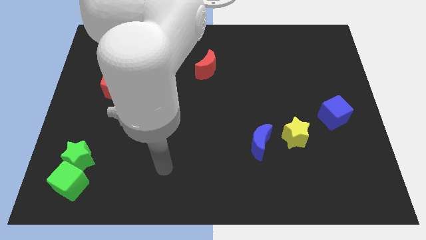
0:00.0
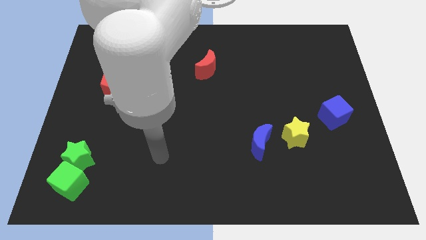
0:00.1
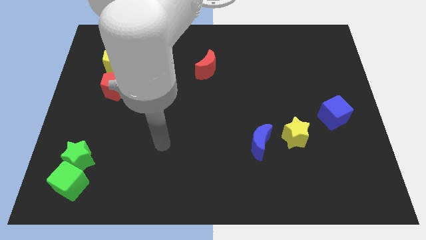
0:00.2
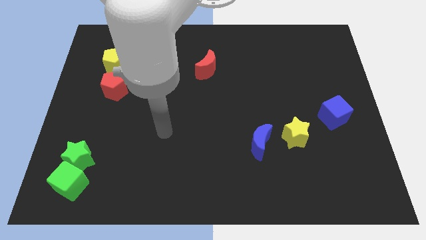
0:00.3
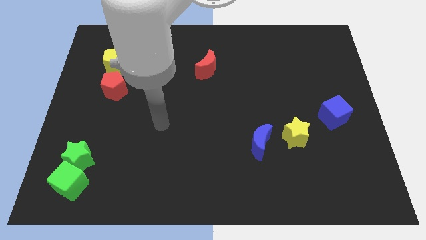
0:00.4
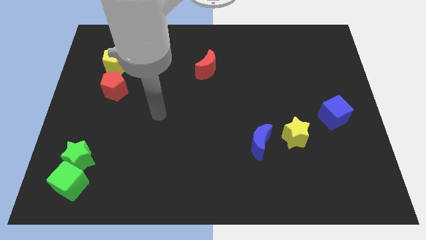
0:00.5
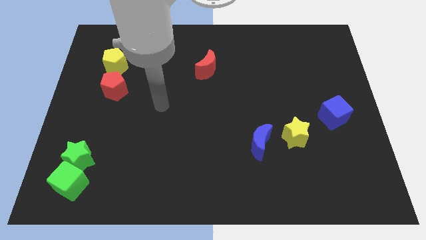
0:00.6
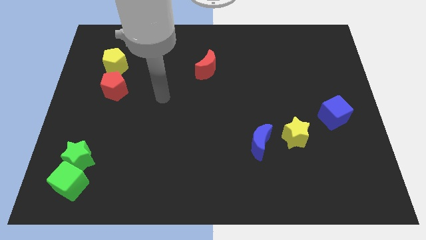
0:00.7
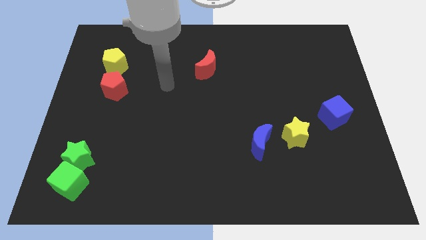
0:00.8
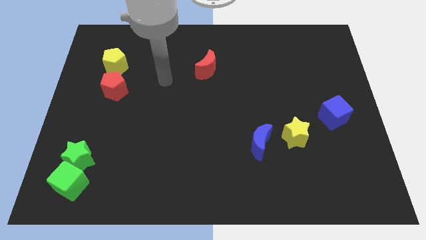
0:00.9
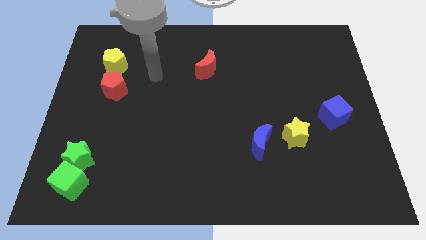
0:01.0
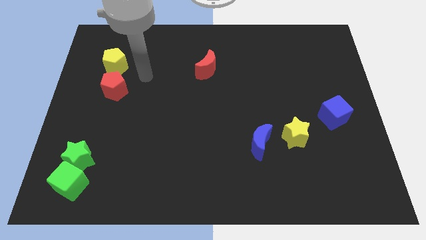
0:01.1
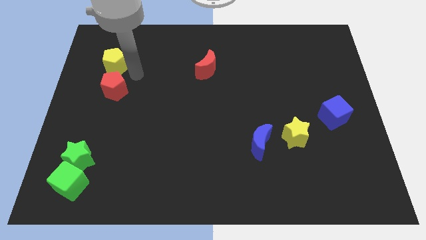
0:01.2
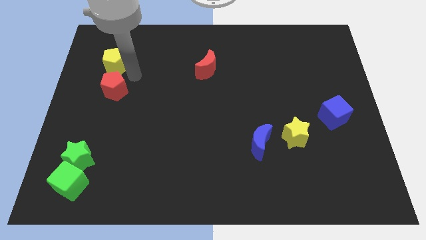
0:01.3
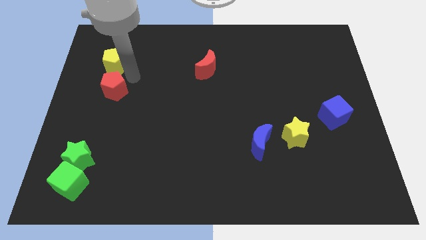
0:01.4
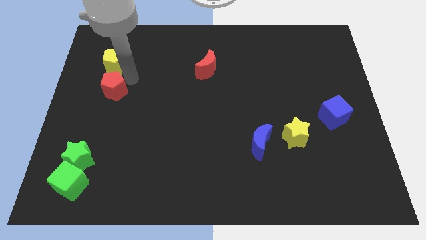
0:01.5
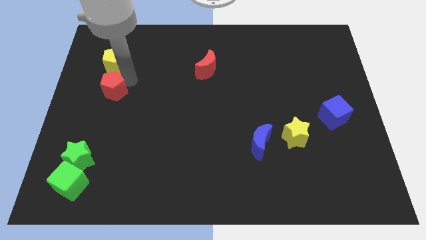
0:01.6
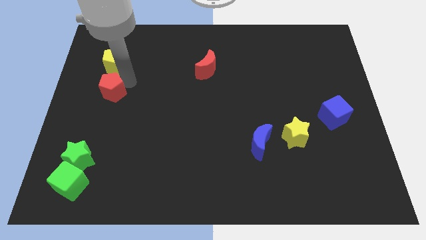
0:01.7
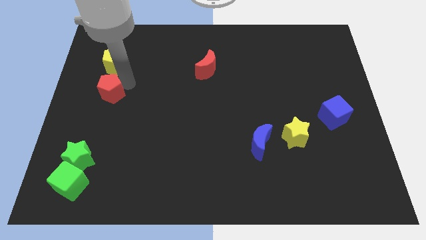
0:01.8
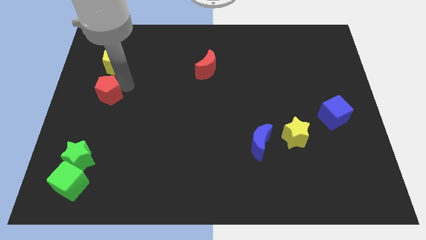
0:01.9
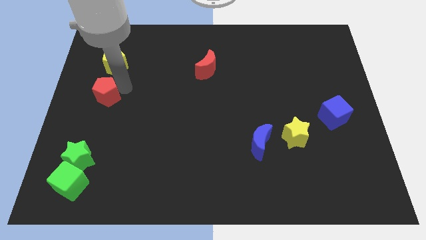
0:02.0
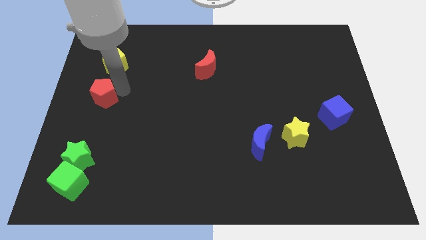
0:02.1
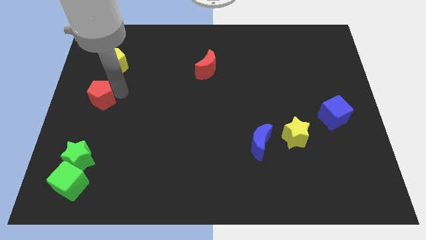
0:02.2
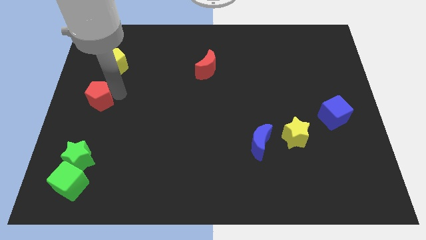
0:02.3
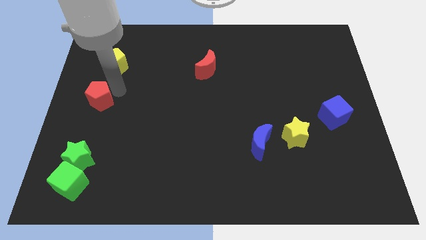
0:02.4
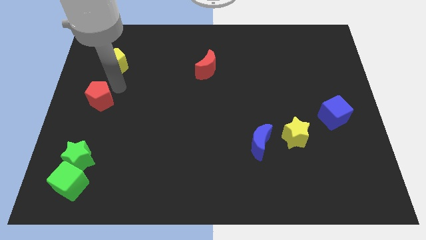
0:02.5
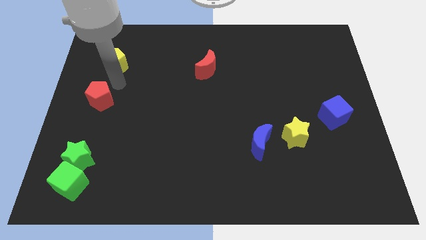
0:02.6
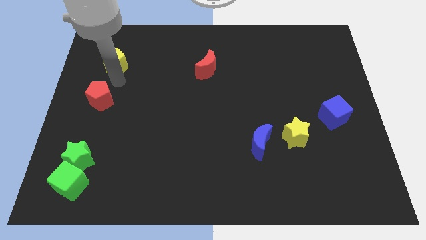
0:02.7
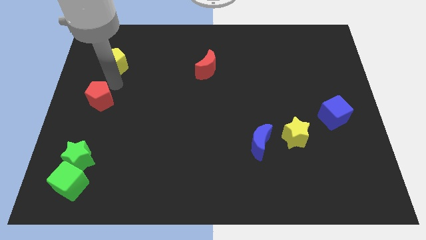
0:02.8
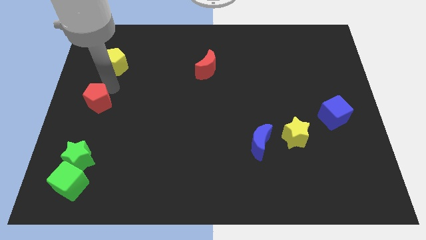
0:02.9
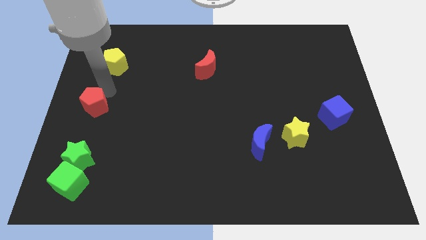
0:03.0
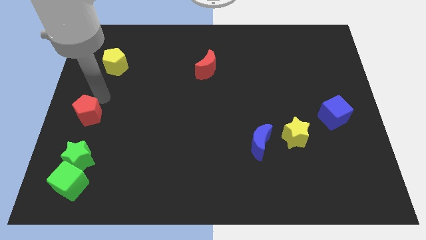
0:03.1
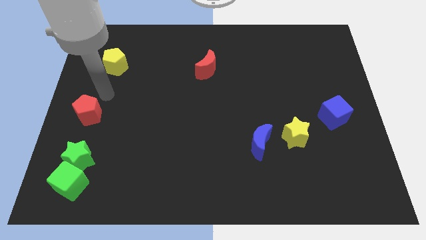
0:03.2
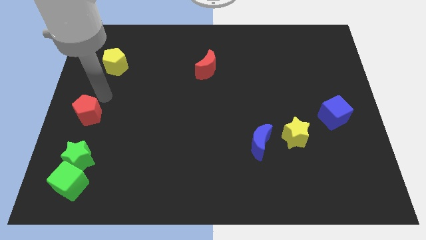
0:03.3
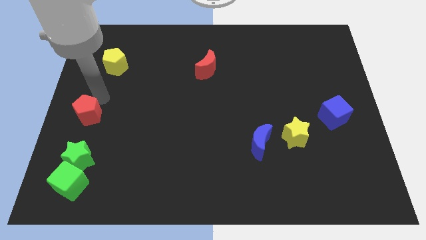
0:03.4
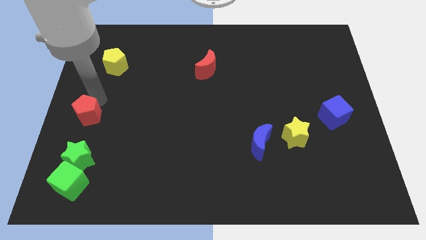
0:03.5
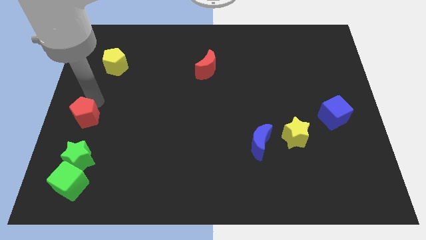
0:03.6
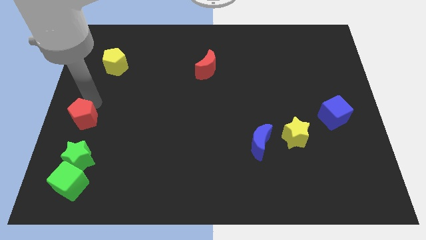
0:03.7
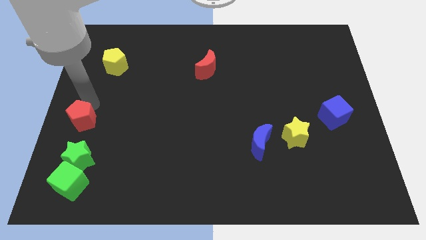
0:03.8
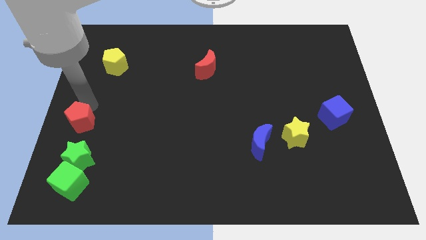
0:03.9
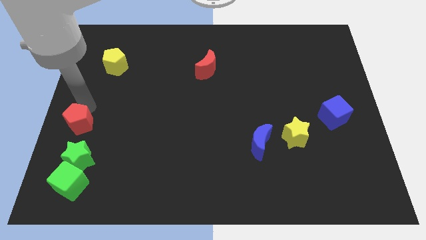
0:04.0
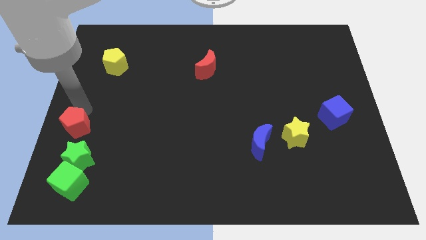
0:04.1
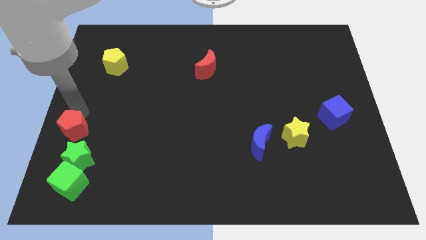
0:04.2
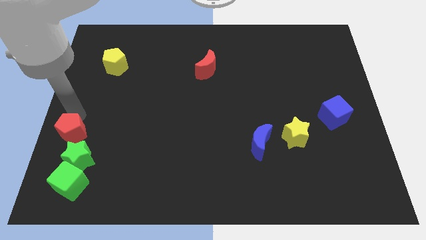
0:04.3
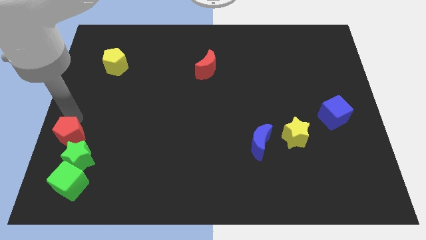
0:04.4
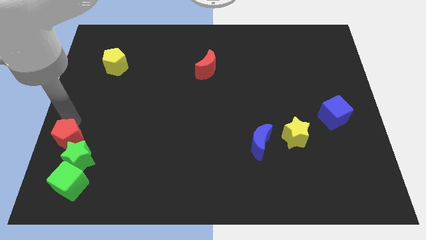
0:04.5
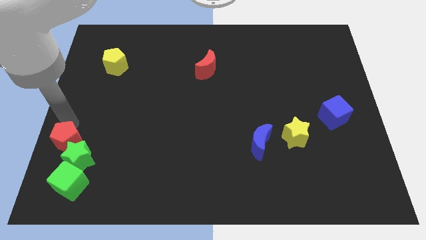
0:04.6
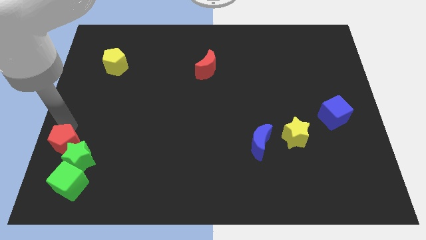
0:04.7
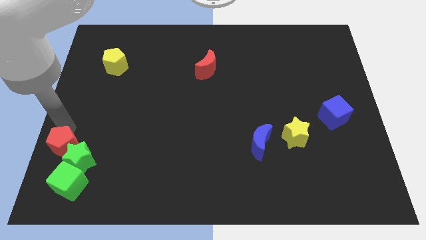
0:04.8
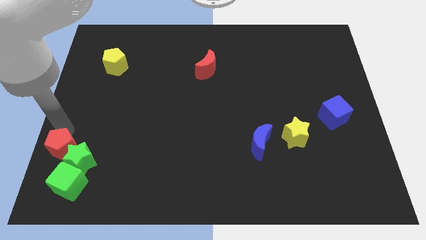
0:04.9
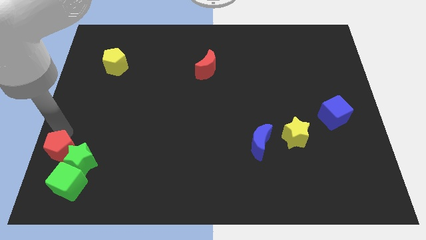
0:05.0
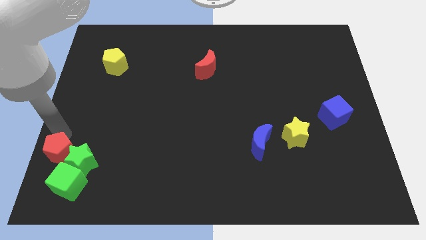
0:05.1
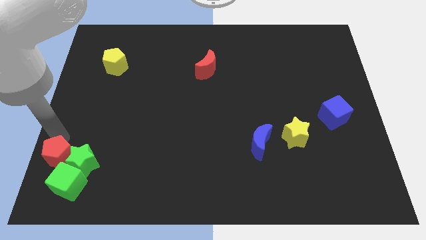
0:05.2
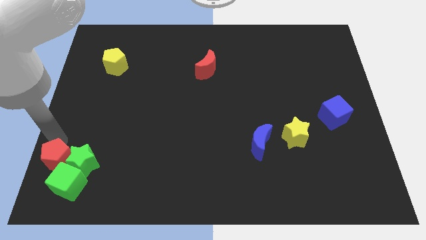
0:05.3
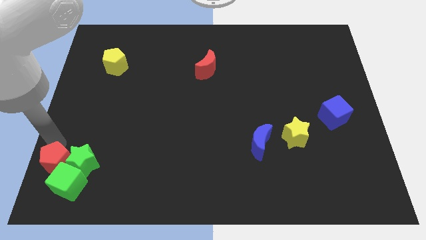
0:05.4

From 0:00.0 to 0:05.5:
slide the red pentagon next to the green cube
